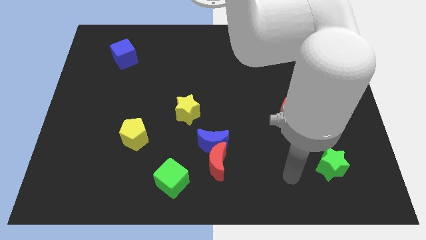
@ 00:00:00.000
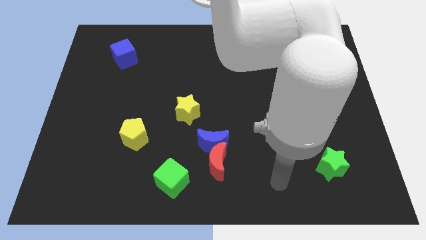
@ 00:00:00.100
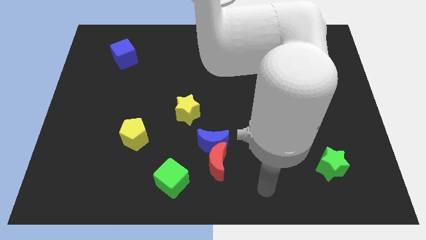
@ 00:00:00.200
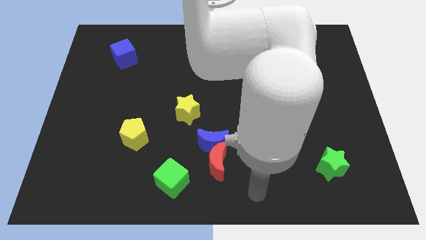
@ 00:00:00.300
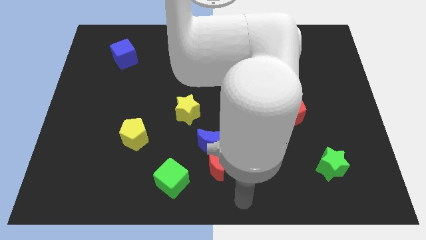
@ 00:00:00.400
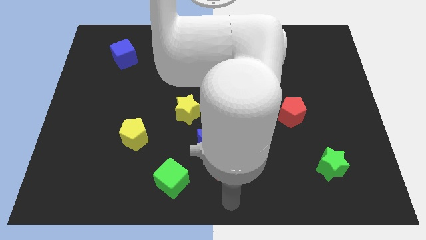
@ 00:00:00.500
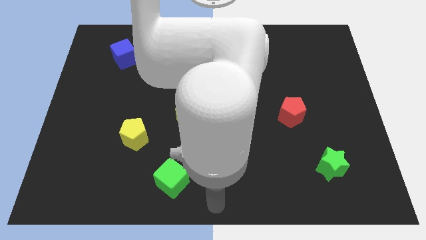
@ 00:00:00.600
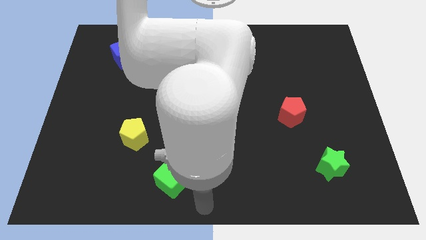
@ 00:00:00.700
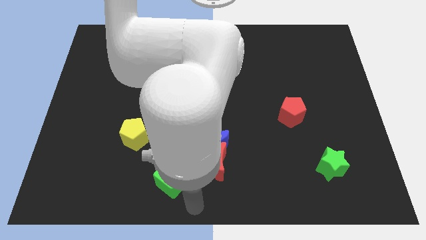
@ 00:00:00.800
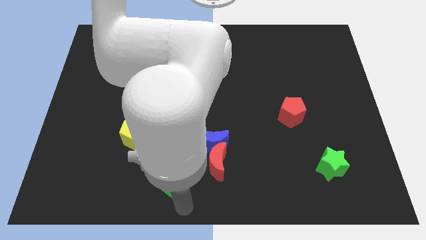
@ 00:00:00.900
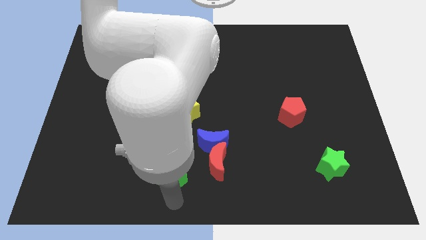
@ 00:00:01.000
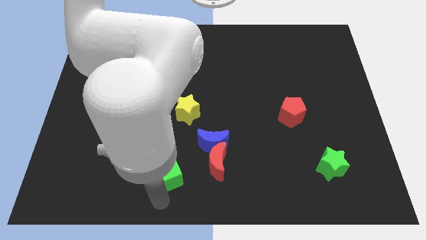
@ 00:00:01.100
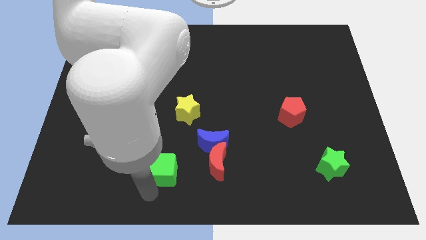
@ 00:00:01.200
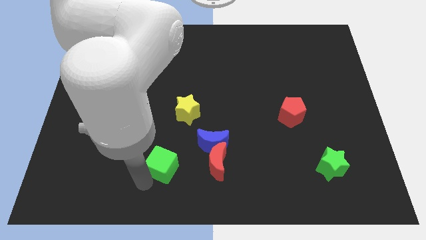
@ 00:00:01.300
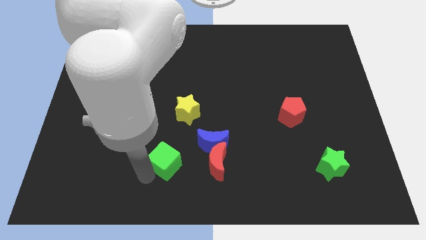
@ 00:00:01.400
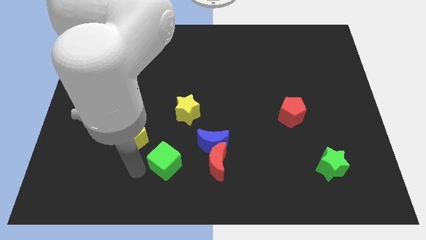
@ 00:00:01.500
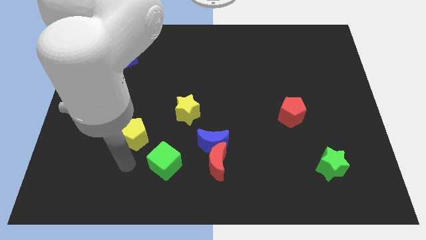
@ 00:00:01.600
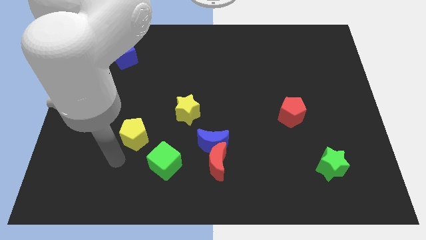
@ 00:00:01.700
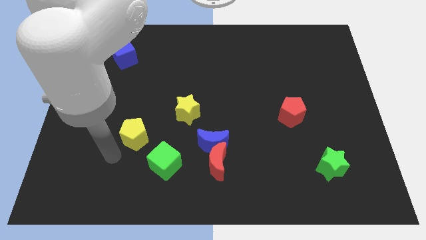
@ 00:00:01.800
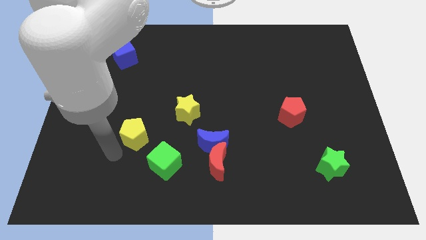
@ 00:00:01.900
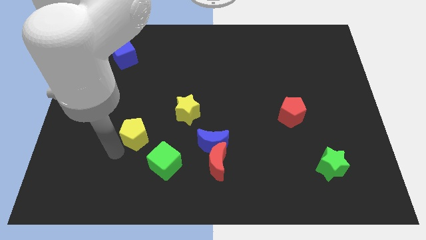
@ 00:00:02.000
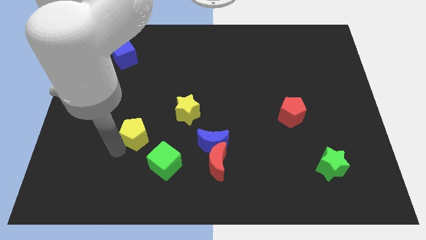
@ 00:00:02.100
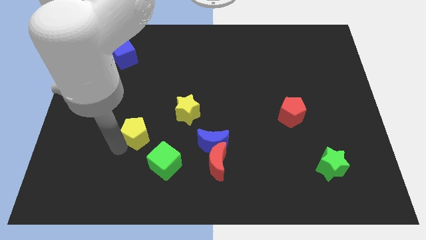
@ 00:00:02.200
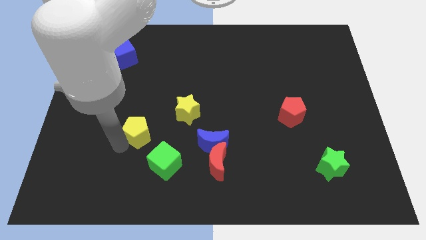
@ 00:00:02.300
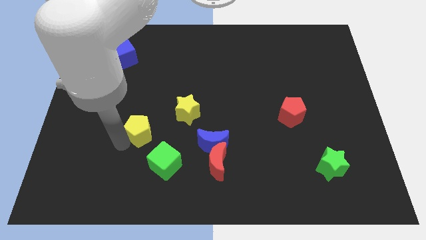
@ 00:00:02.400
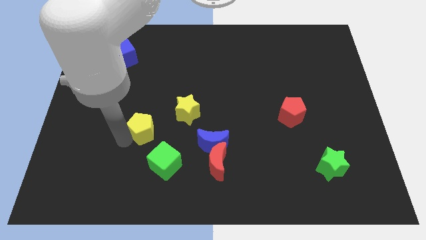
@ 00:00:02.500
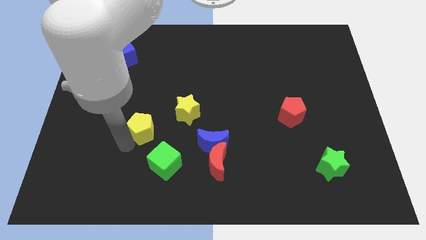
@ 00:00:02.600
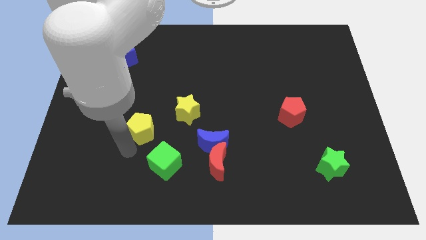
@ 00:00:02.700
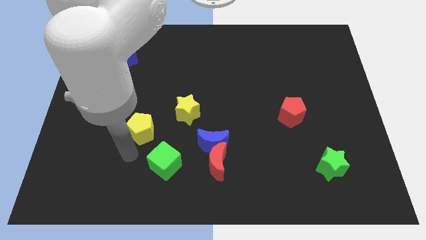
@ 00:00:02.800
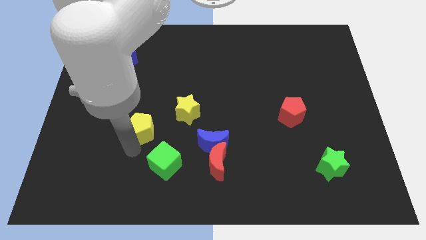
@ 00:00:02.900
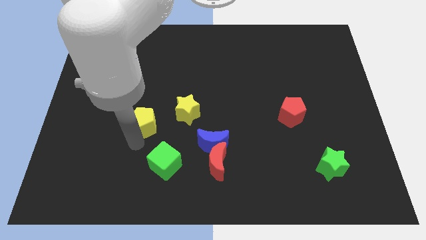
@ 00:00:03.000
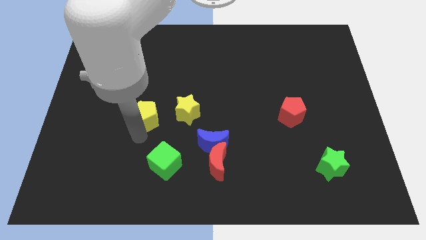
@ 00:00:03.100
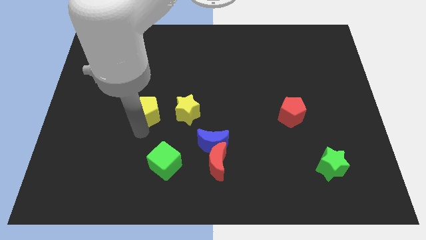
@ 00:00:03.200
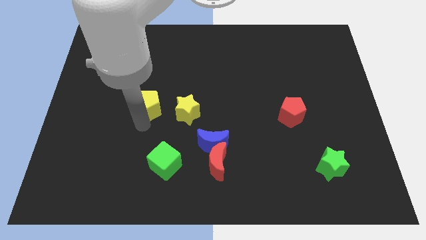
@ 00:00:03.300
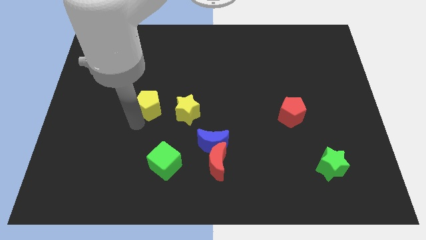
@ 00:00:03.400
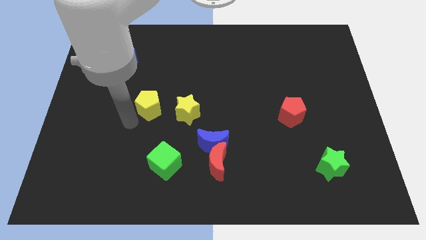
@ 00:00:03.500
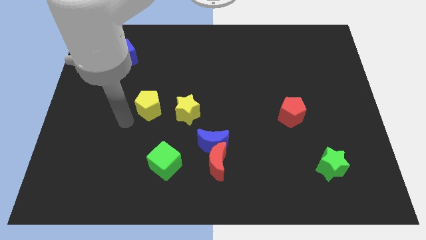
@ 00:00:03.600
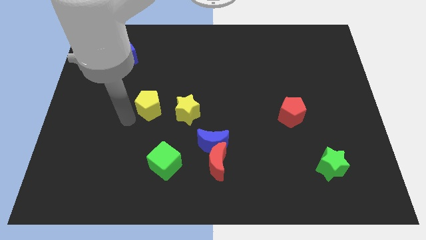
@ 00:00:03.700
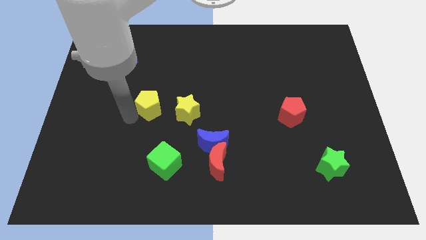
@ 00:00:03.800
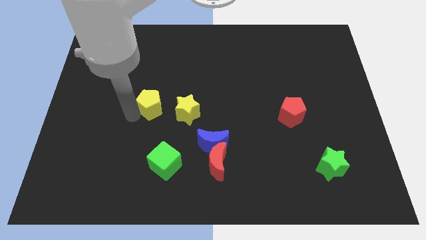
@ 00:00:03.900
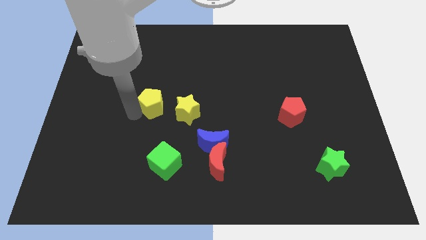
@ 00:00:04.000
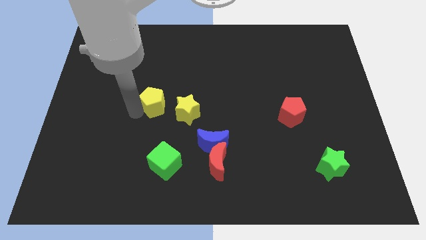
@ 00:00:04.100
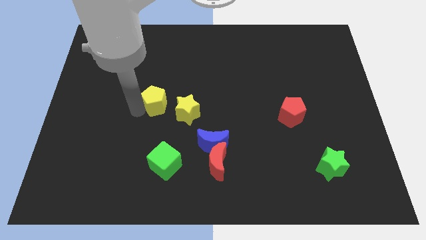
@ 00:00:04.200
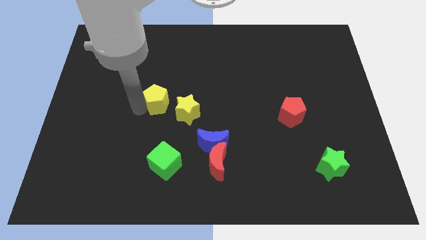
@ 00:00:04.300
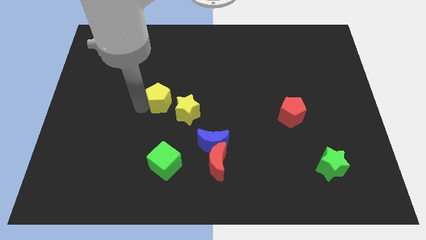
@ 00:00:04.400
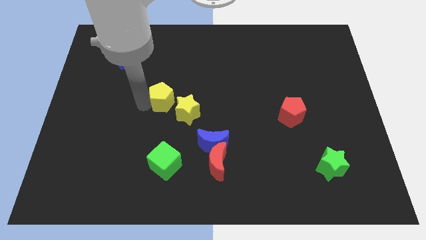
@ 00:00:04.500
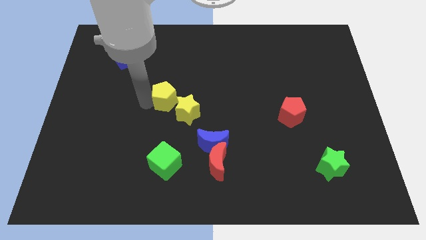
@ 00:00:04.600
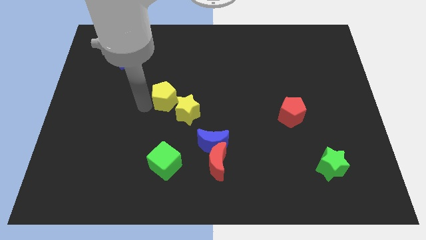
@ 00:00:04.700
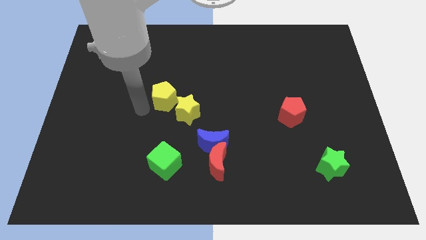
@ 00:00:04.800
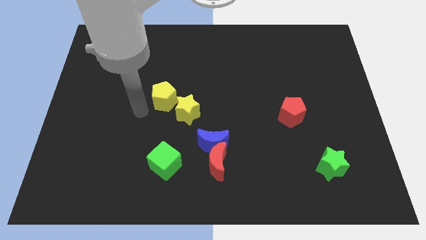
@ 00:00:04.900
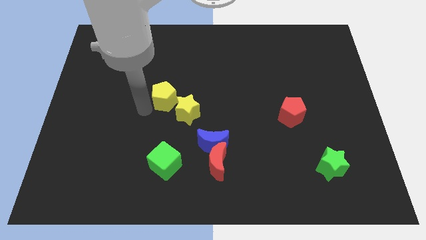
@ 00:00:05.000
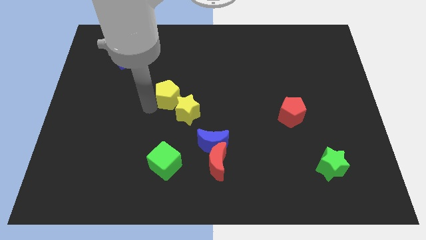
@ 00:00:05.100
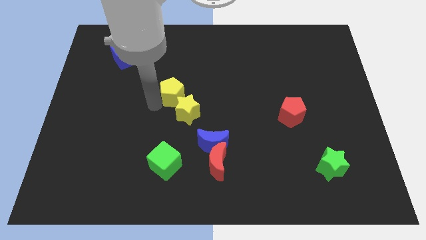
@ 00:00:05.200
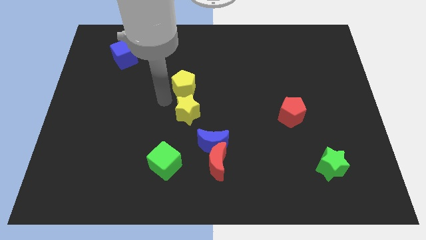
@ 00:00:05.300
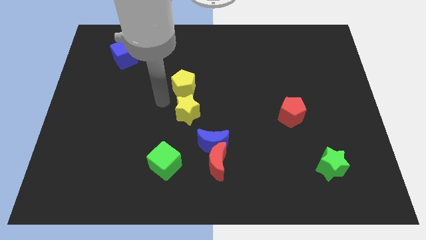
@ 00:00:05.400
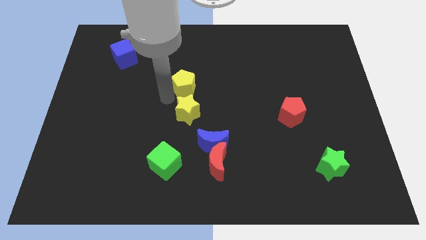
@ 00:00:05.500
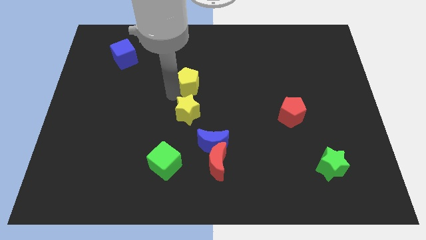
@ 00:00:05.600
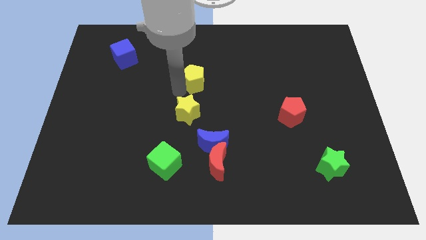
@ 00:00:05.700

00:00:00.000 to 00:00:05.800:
move the yellow pentagon upwards and to the right diagonally

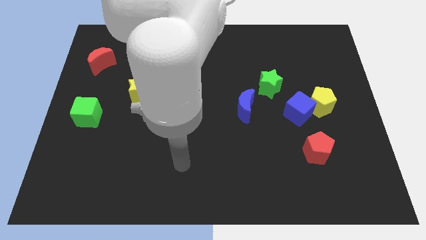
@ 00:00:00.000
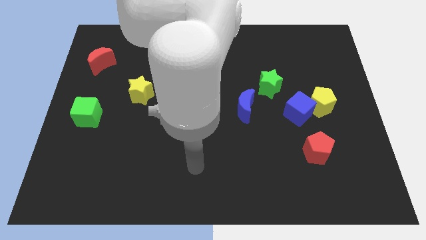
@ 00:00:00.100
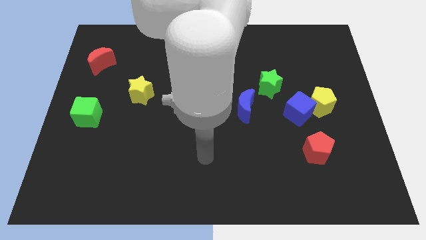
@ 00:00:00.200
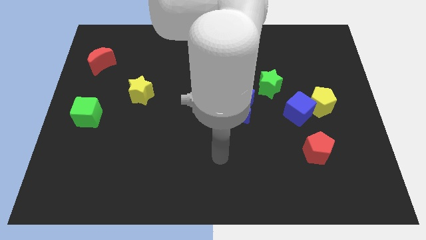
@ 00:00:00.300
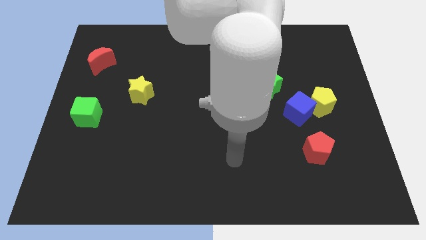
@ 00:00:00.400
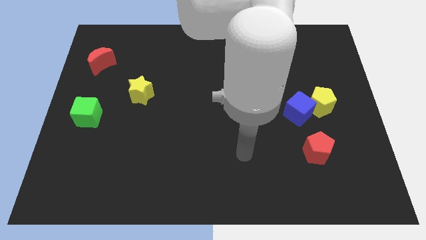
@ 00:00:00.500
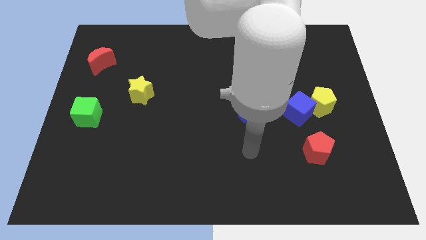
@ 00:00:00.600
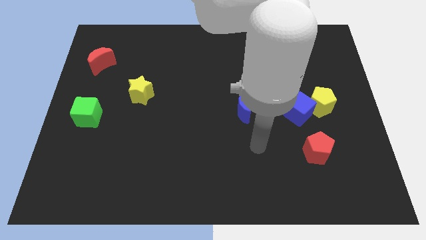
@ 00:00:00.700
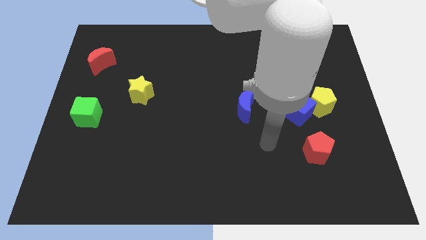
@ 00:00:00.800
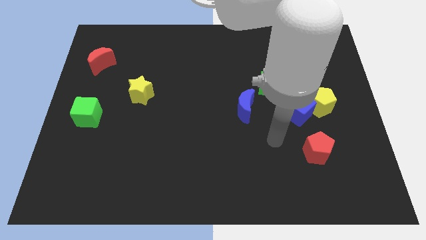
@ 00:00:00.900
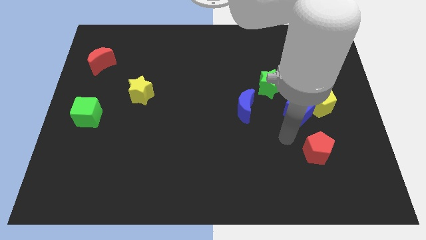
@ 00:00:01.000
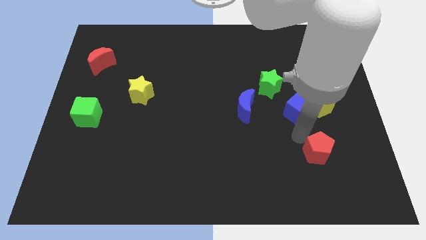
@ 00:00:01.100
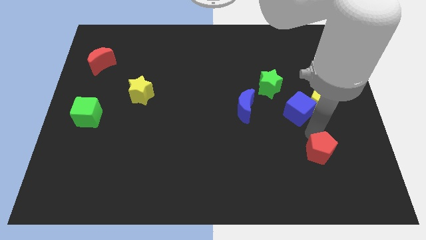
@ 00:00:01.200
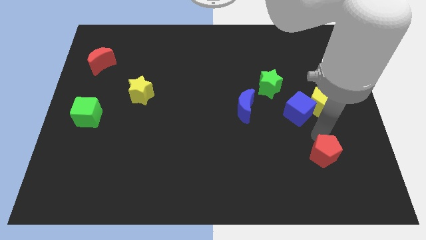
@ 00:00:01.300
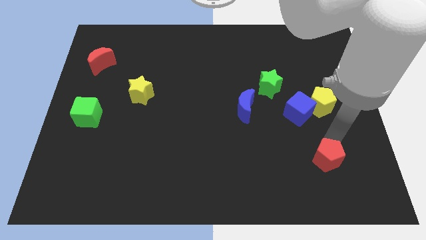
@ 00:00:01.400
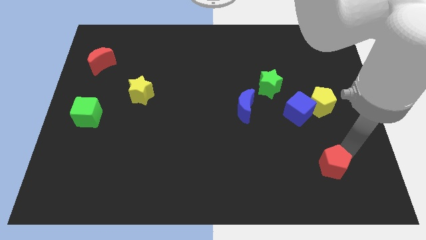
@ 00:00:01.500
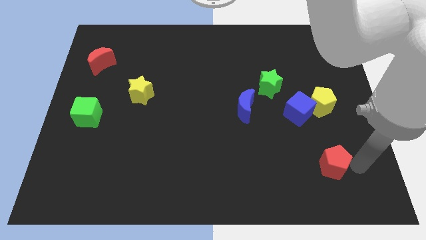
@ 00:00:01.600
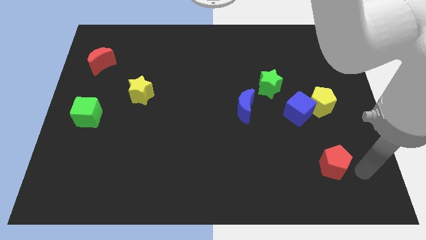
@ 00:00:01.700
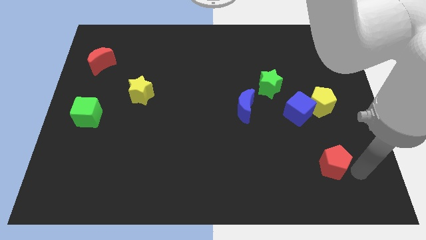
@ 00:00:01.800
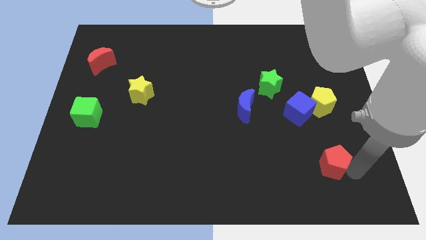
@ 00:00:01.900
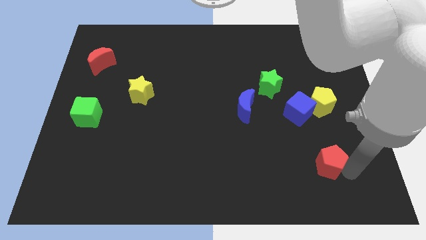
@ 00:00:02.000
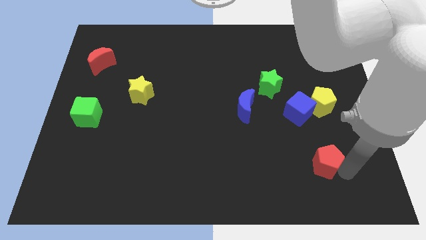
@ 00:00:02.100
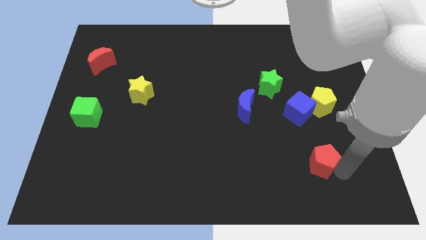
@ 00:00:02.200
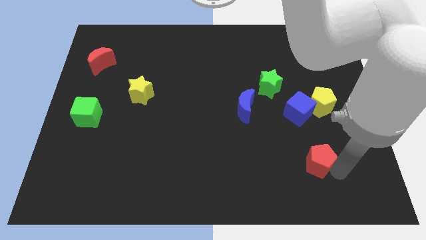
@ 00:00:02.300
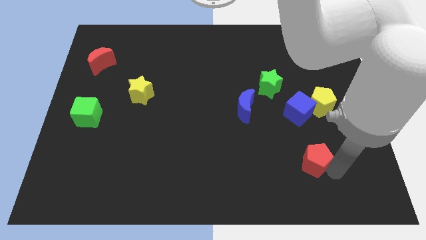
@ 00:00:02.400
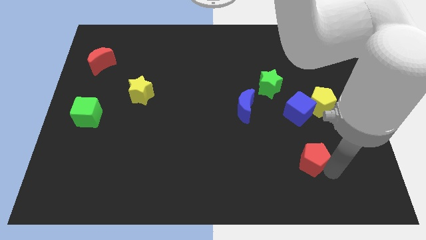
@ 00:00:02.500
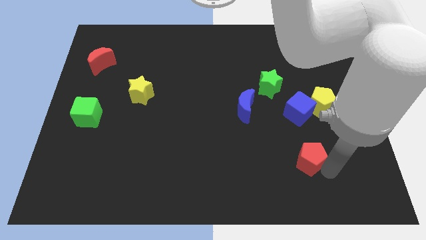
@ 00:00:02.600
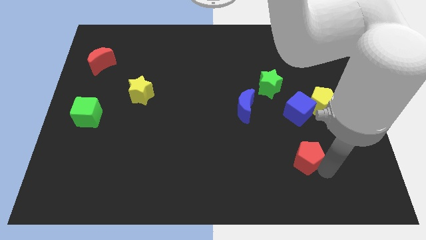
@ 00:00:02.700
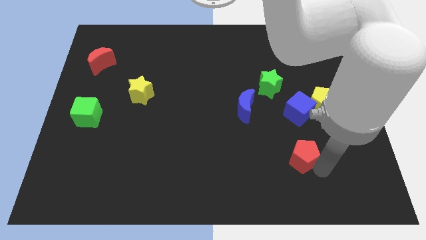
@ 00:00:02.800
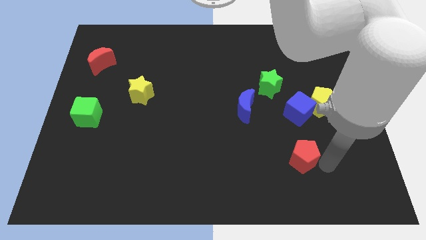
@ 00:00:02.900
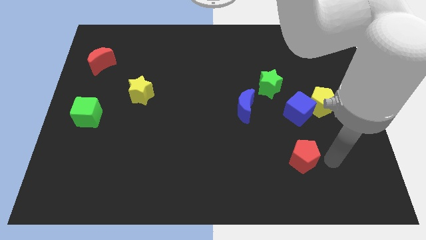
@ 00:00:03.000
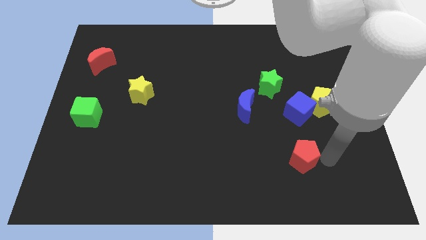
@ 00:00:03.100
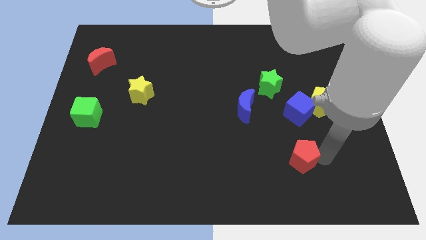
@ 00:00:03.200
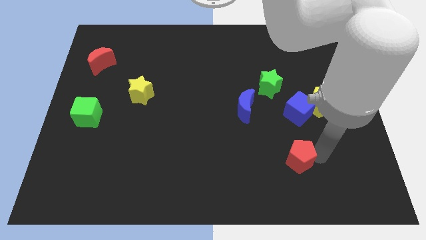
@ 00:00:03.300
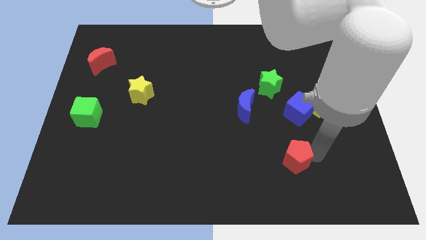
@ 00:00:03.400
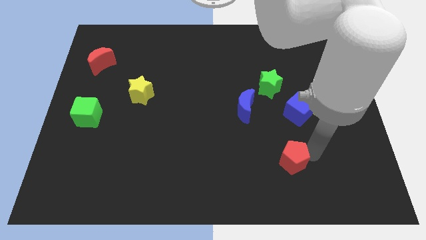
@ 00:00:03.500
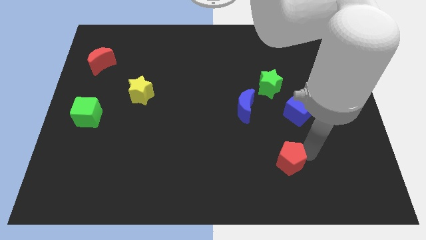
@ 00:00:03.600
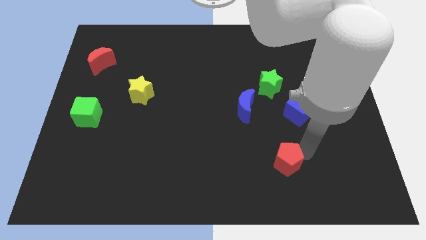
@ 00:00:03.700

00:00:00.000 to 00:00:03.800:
move the red pentagon slightly left
